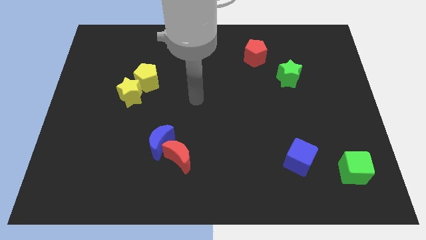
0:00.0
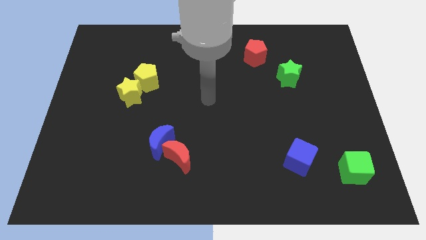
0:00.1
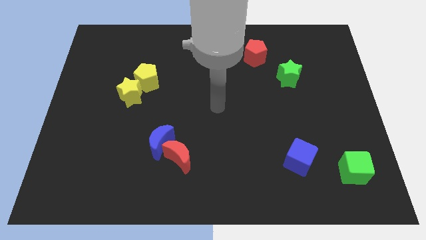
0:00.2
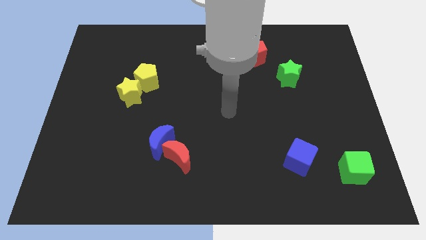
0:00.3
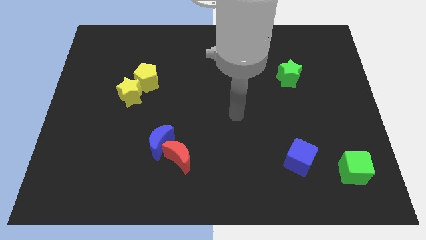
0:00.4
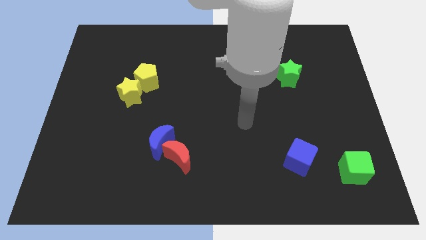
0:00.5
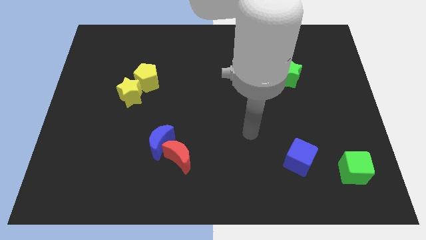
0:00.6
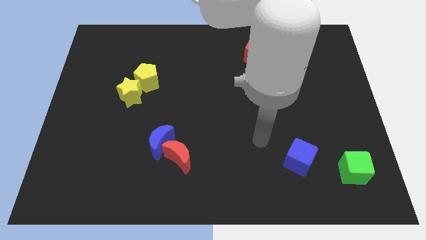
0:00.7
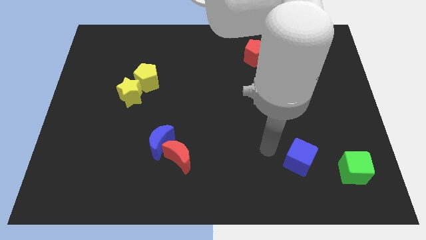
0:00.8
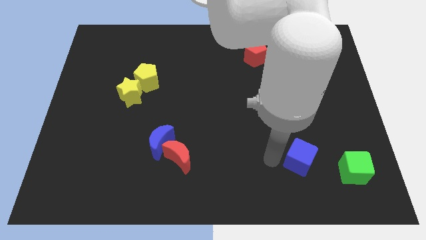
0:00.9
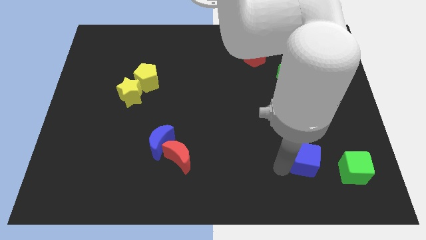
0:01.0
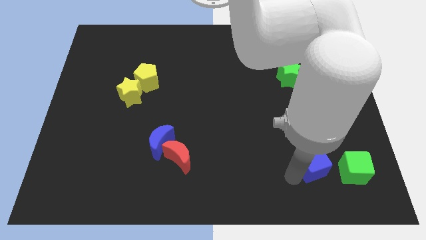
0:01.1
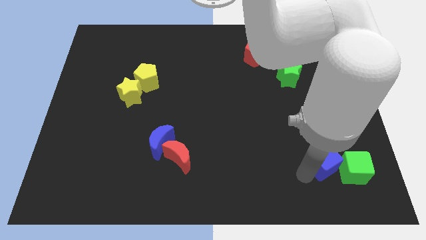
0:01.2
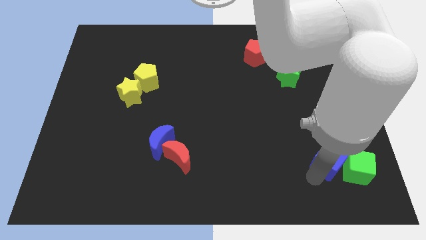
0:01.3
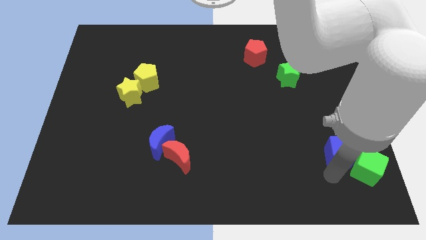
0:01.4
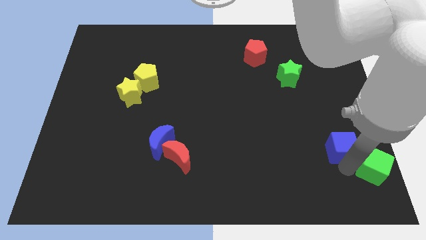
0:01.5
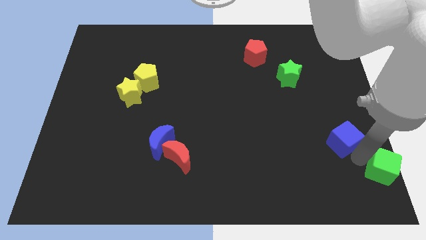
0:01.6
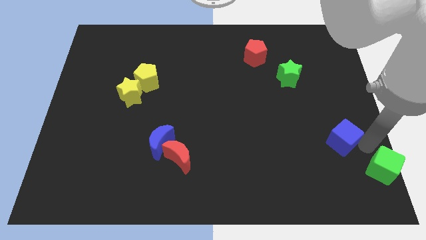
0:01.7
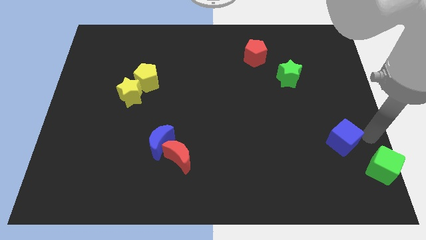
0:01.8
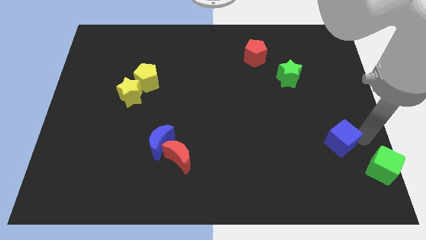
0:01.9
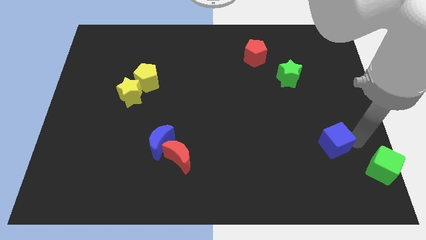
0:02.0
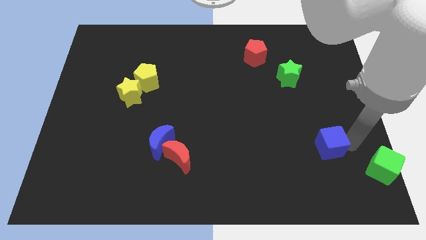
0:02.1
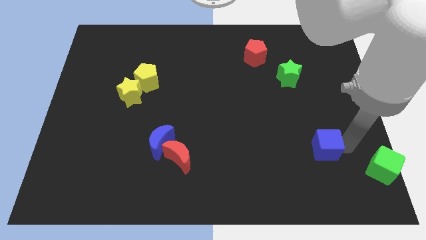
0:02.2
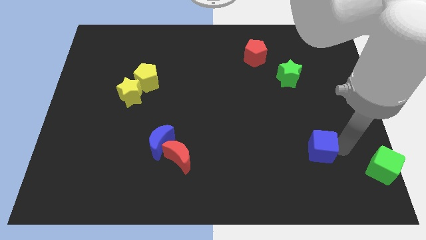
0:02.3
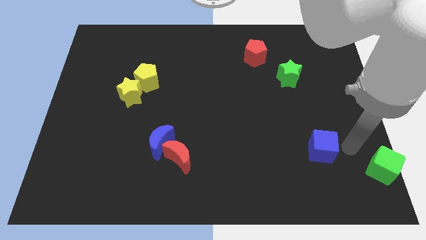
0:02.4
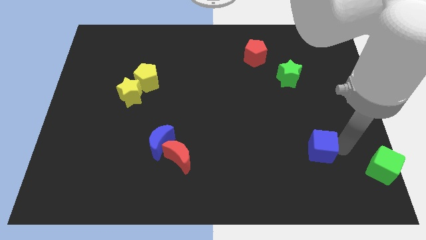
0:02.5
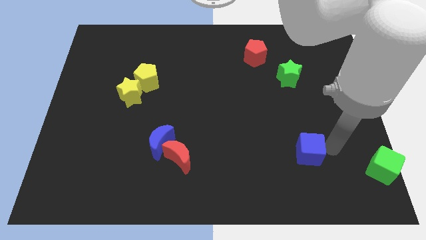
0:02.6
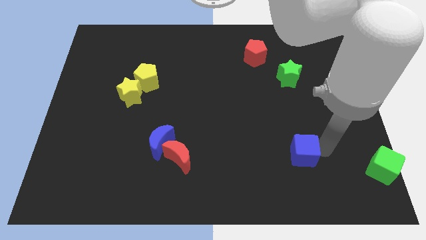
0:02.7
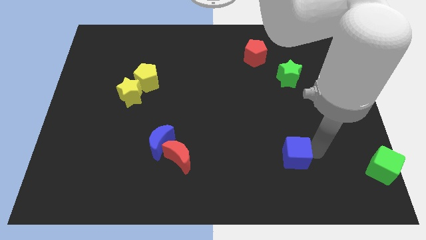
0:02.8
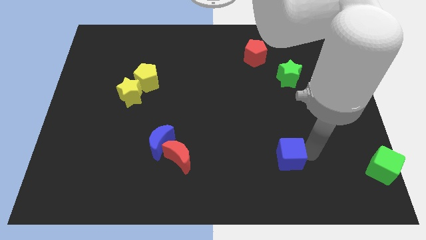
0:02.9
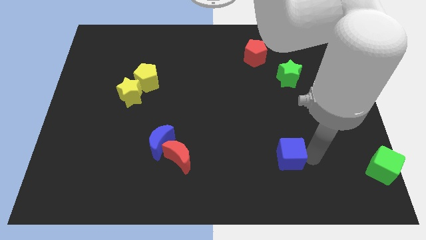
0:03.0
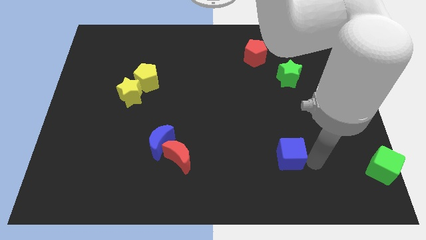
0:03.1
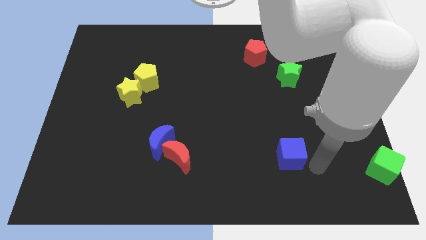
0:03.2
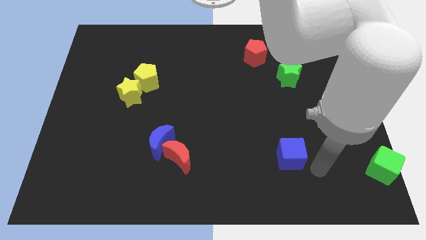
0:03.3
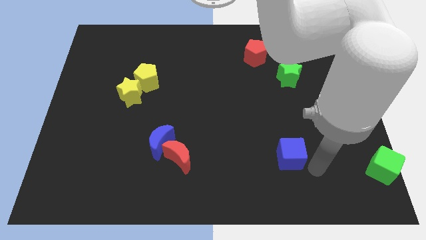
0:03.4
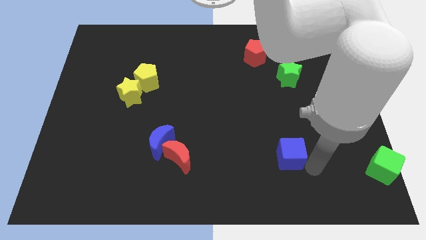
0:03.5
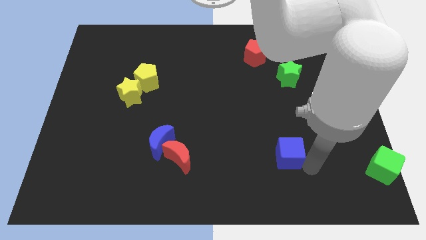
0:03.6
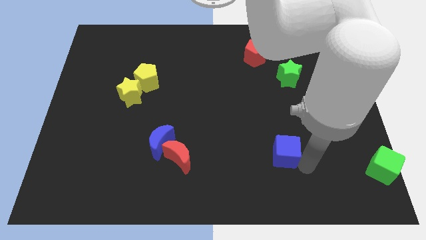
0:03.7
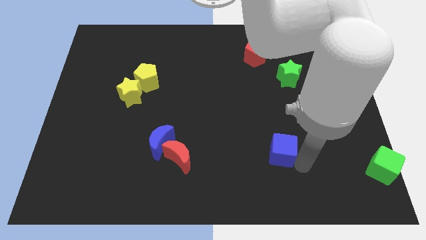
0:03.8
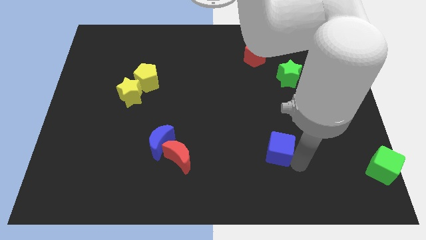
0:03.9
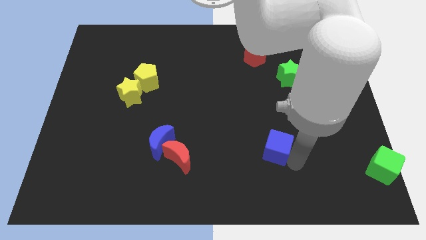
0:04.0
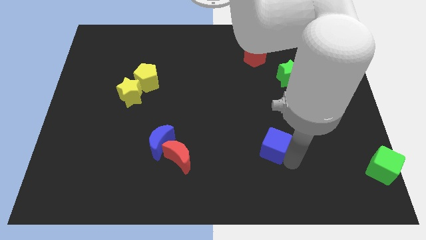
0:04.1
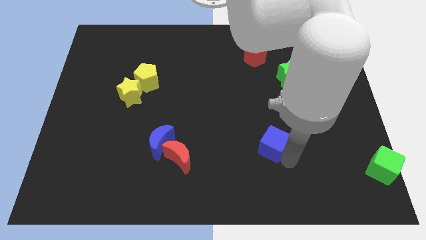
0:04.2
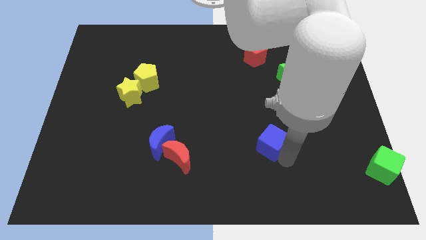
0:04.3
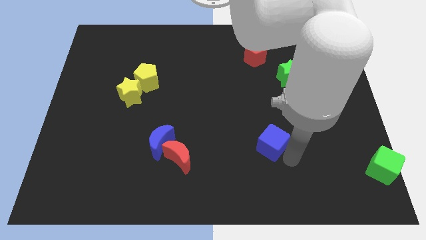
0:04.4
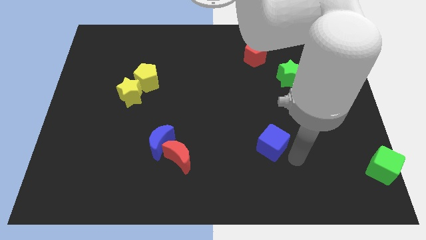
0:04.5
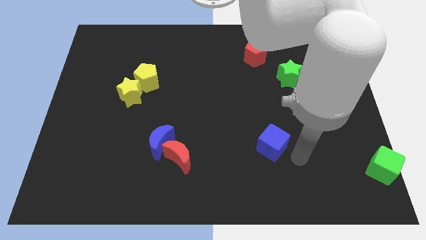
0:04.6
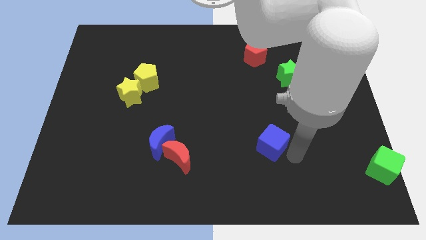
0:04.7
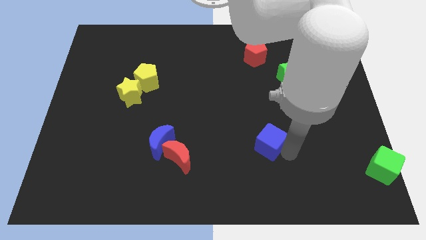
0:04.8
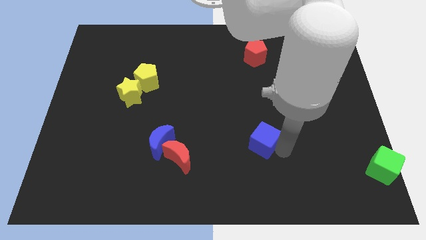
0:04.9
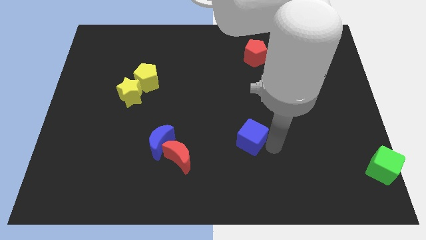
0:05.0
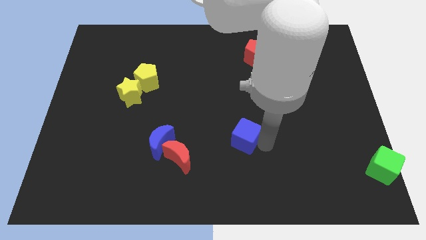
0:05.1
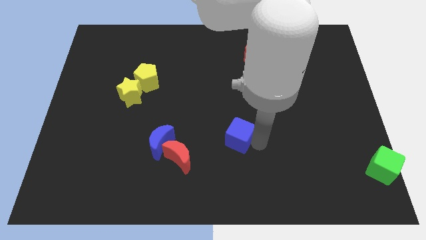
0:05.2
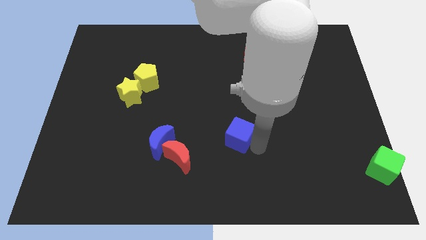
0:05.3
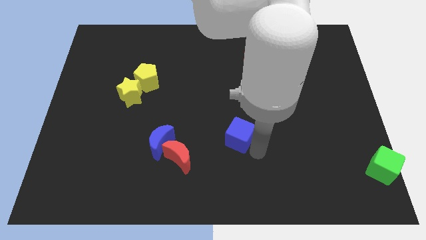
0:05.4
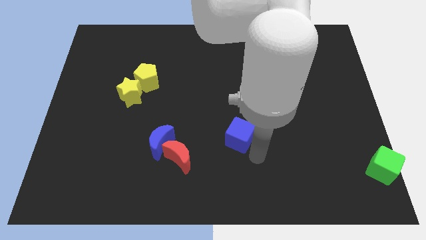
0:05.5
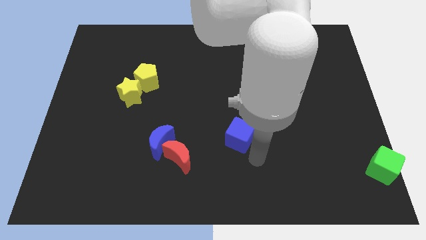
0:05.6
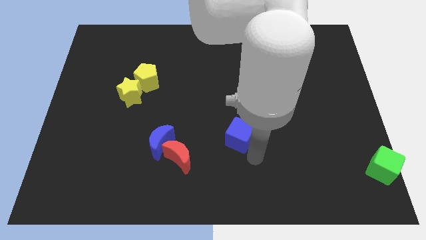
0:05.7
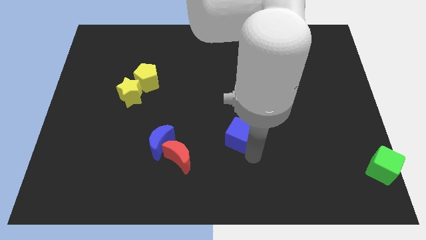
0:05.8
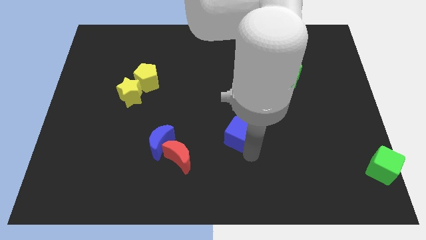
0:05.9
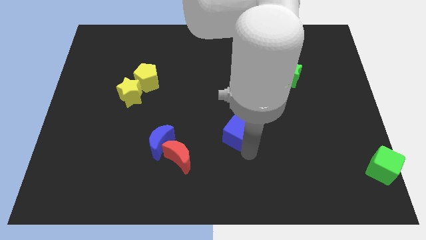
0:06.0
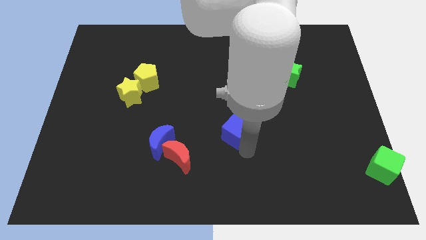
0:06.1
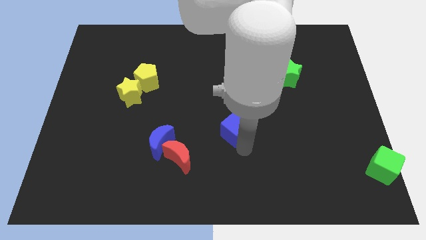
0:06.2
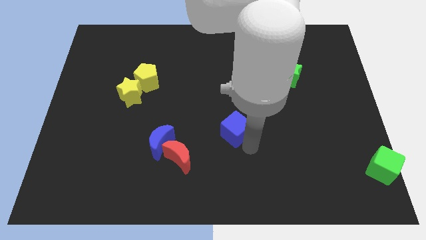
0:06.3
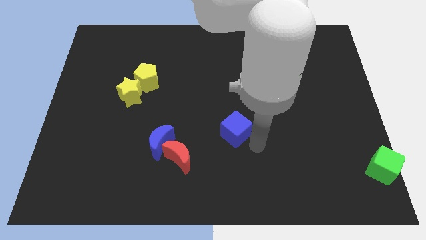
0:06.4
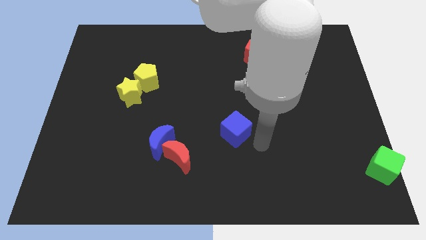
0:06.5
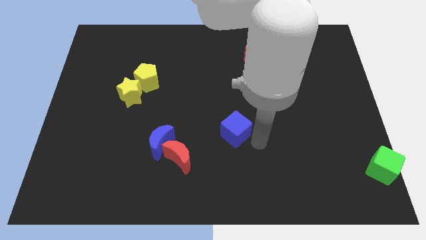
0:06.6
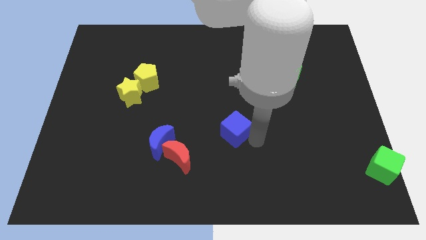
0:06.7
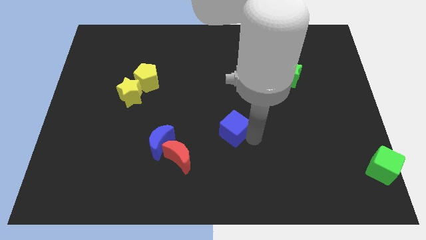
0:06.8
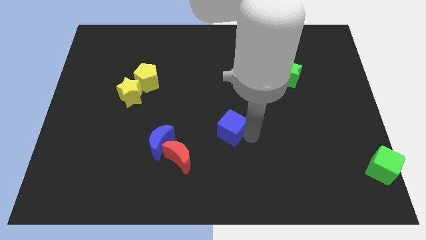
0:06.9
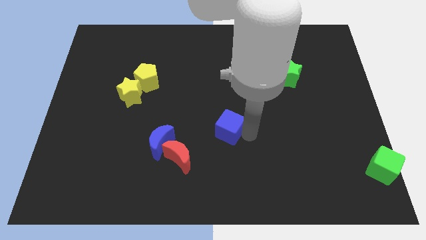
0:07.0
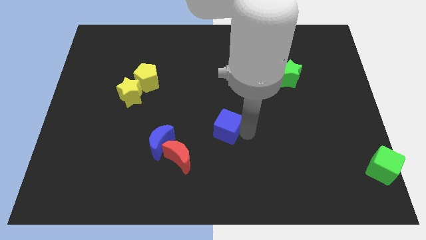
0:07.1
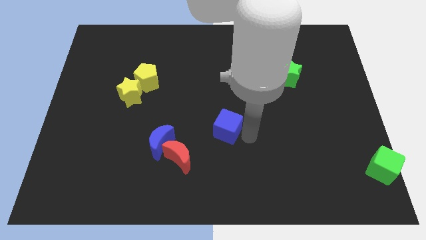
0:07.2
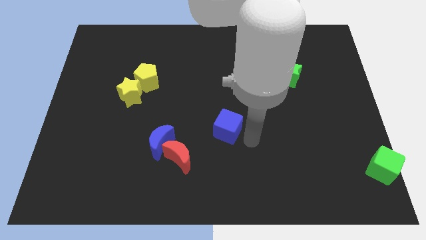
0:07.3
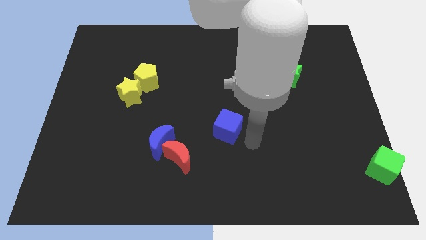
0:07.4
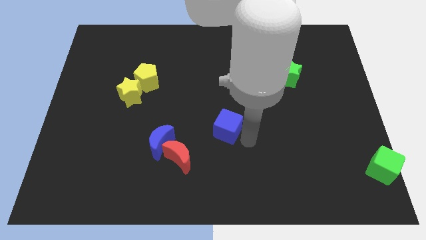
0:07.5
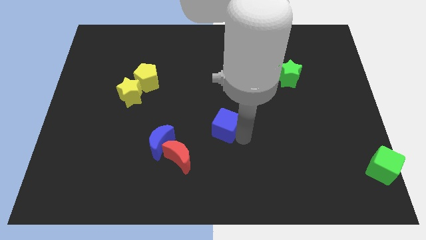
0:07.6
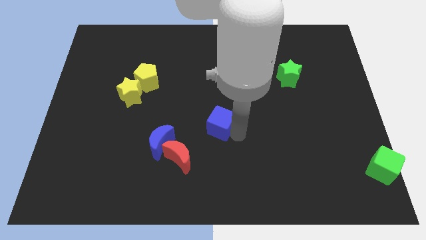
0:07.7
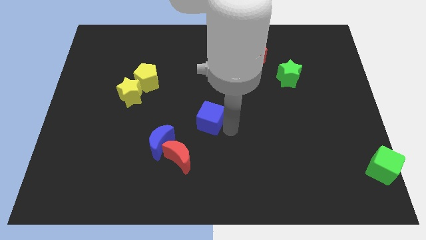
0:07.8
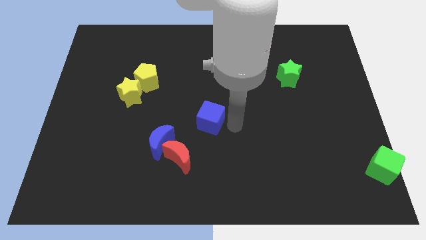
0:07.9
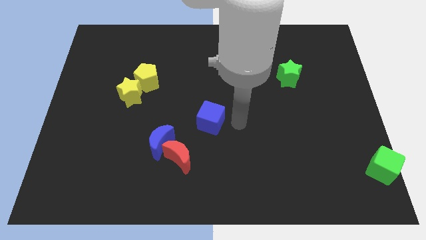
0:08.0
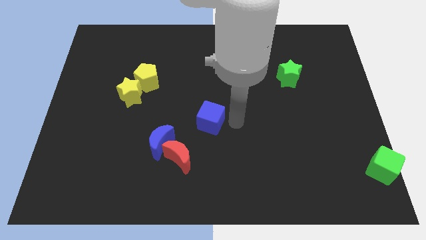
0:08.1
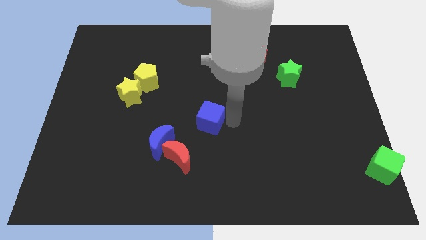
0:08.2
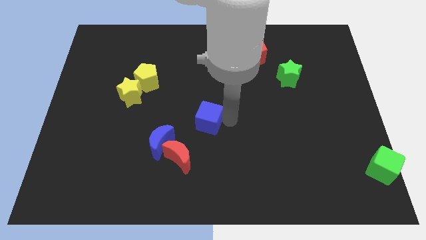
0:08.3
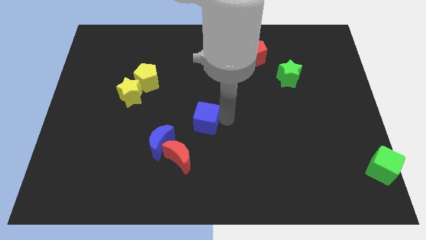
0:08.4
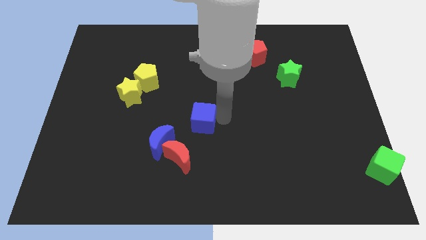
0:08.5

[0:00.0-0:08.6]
push the blue cube to the top side of the red moon
